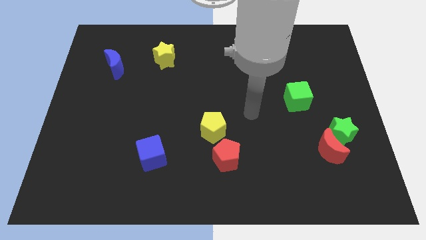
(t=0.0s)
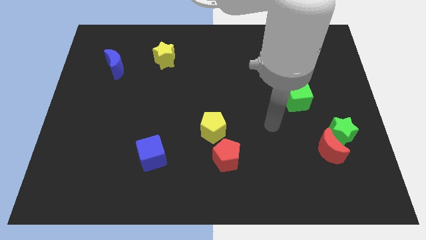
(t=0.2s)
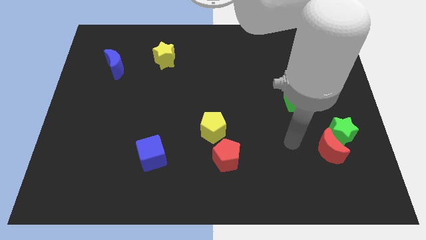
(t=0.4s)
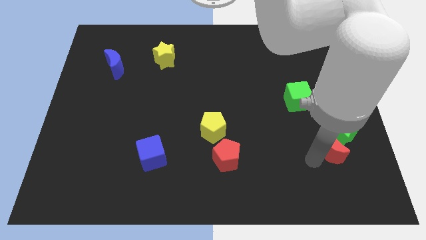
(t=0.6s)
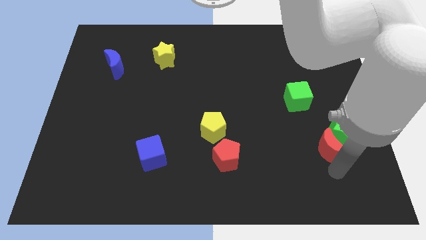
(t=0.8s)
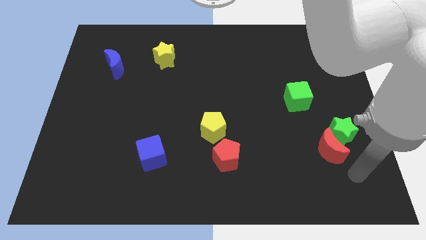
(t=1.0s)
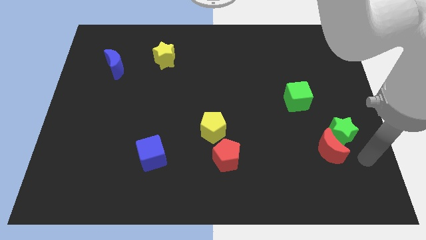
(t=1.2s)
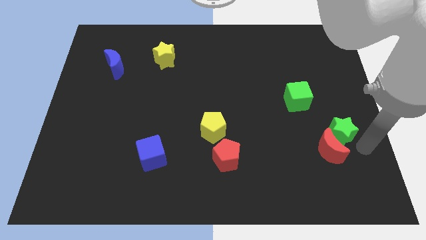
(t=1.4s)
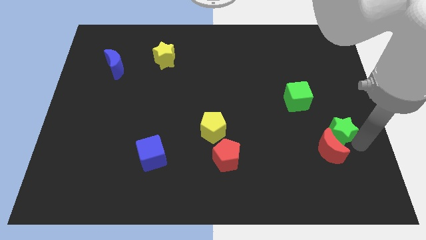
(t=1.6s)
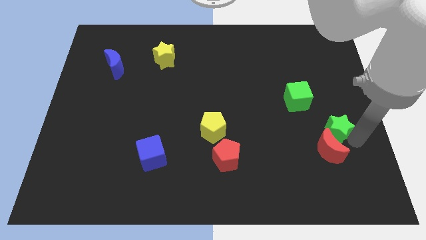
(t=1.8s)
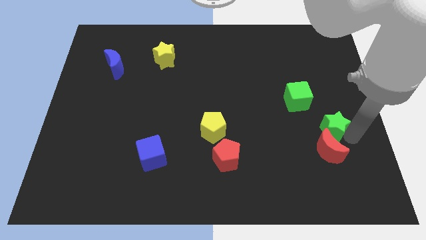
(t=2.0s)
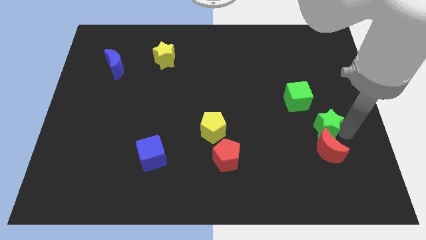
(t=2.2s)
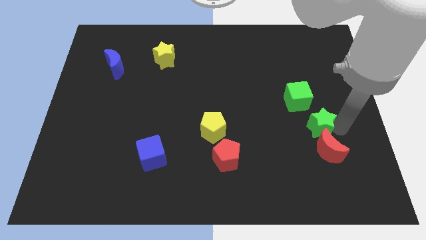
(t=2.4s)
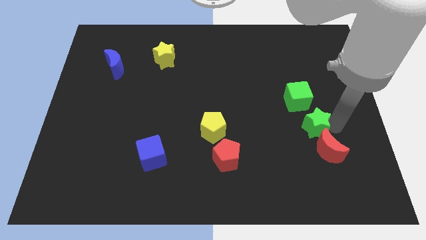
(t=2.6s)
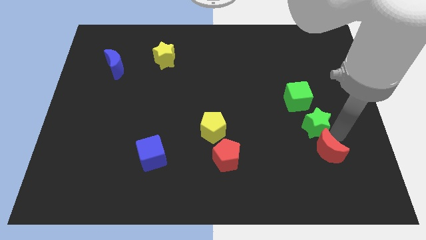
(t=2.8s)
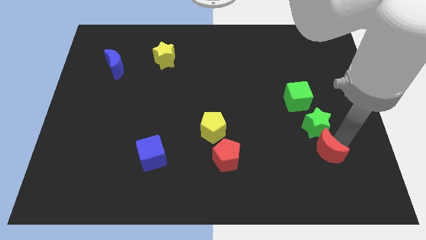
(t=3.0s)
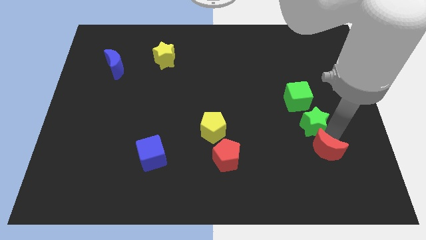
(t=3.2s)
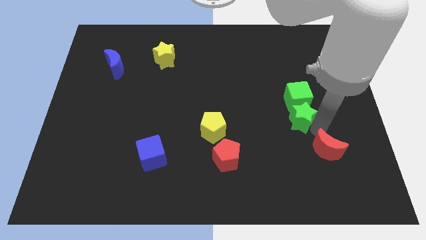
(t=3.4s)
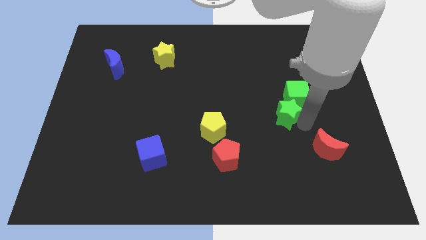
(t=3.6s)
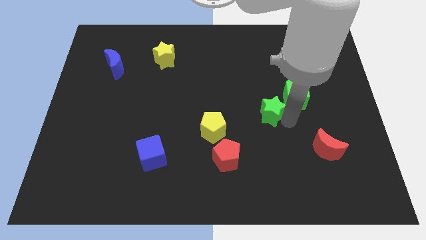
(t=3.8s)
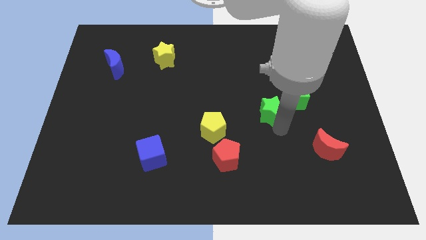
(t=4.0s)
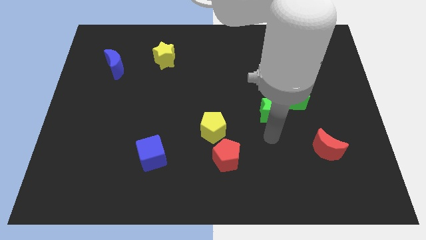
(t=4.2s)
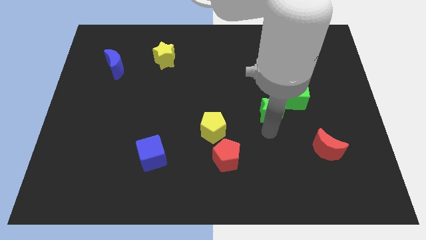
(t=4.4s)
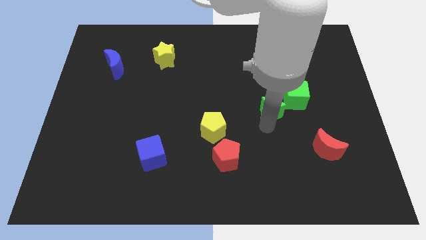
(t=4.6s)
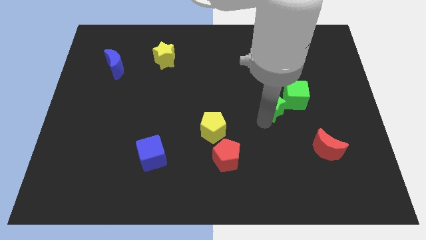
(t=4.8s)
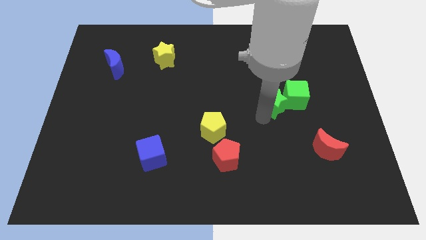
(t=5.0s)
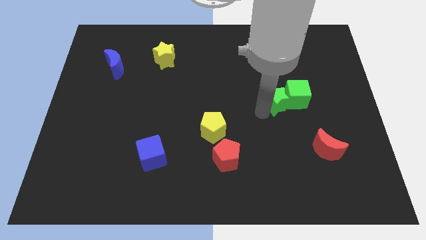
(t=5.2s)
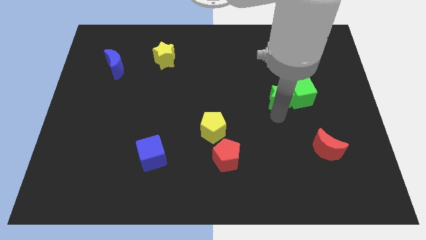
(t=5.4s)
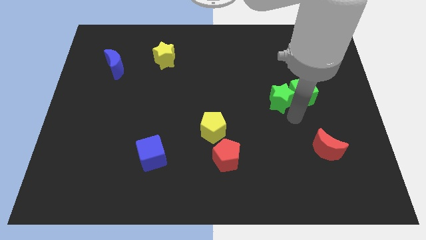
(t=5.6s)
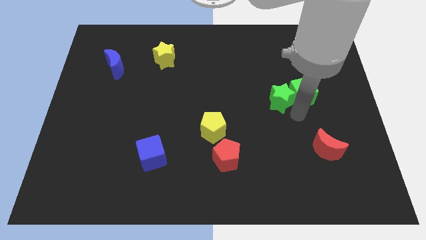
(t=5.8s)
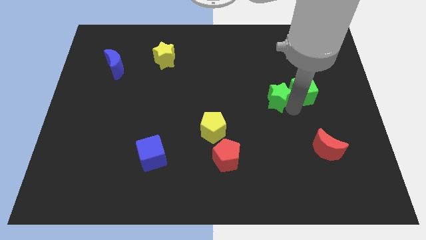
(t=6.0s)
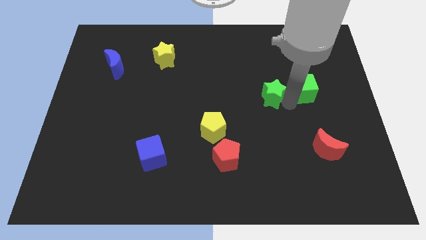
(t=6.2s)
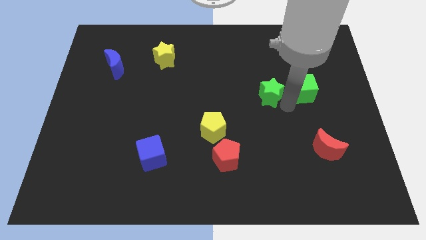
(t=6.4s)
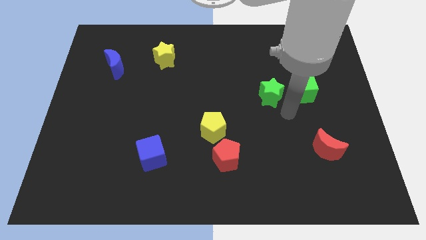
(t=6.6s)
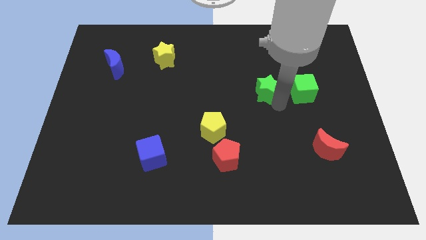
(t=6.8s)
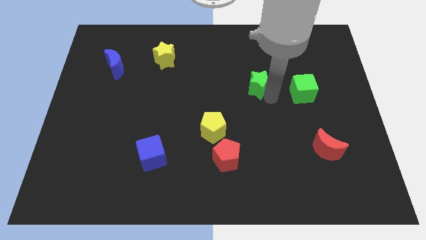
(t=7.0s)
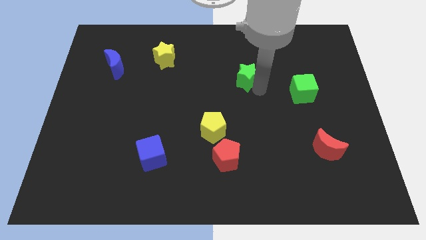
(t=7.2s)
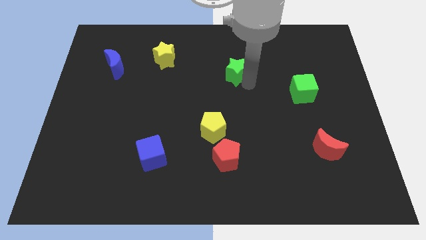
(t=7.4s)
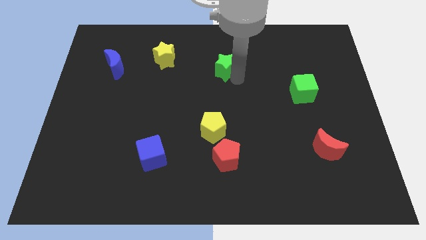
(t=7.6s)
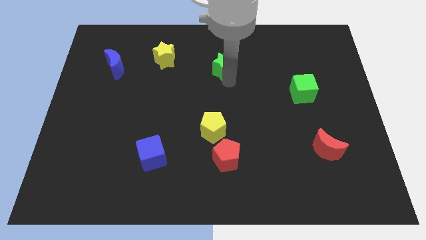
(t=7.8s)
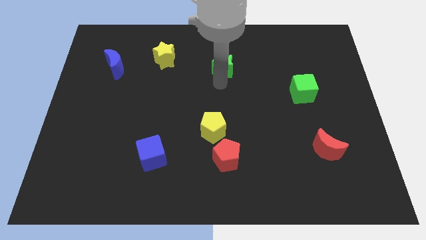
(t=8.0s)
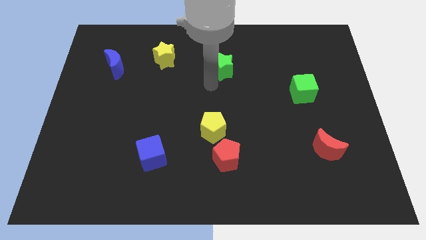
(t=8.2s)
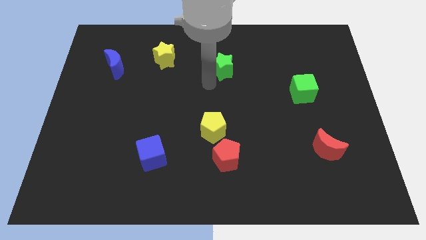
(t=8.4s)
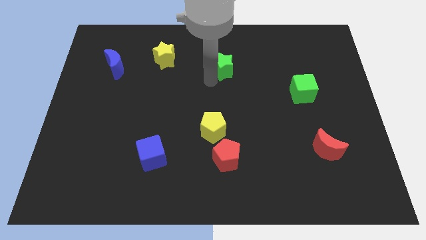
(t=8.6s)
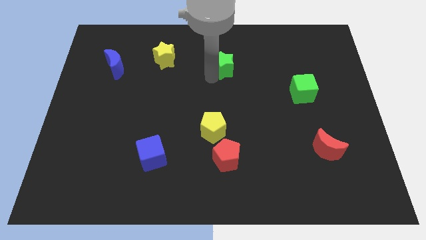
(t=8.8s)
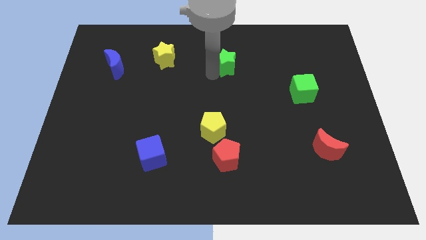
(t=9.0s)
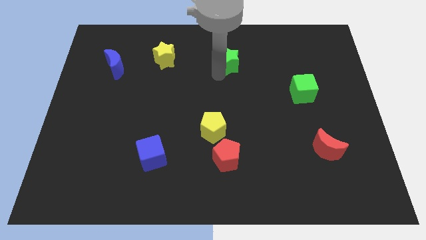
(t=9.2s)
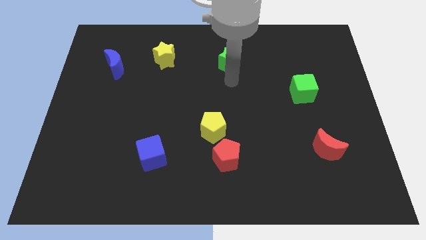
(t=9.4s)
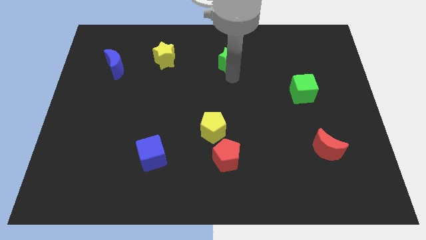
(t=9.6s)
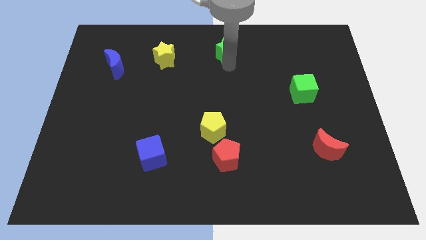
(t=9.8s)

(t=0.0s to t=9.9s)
put the green star to the towards your base

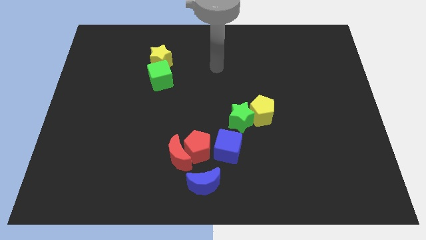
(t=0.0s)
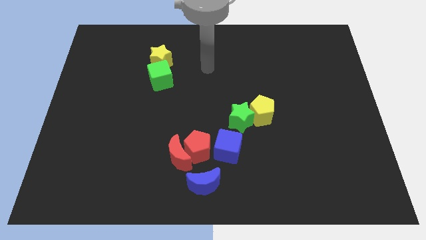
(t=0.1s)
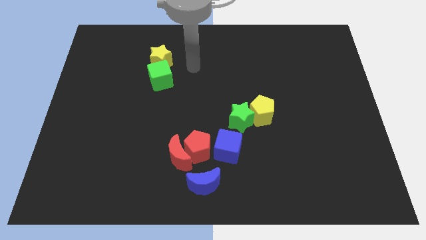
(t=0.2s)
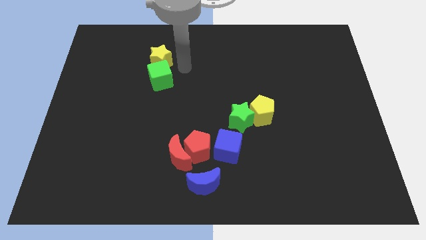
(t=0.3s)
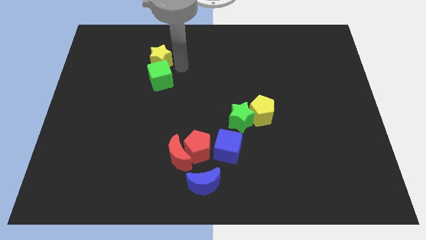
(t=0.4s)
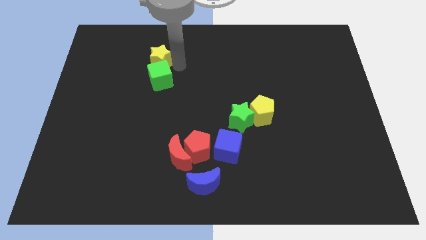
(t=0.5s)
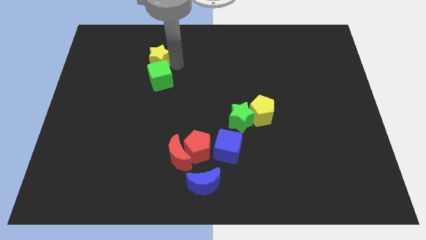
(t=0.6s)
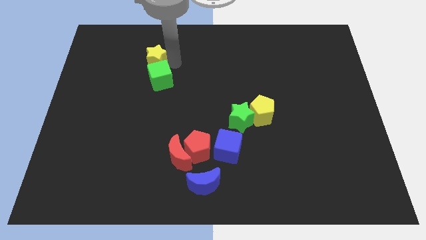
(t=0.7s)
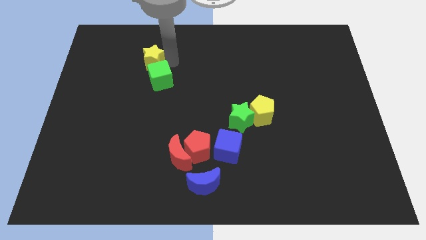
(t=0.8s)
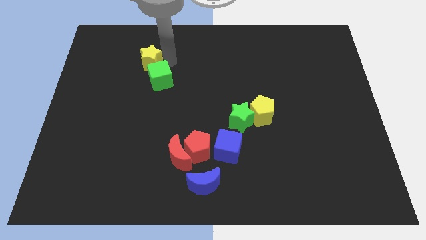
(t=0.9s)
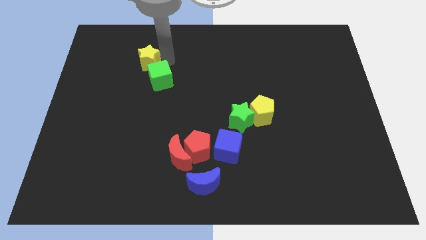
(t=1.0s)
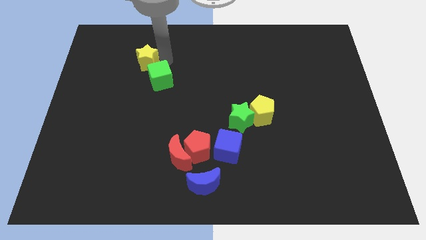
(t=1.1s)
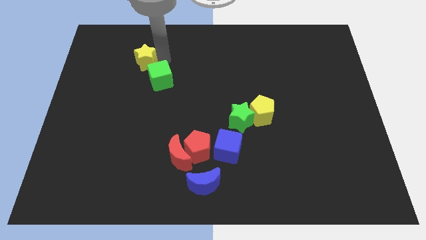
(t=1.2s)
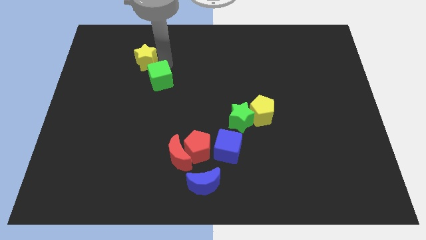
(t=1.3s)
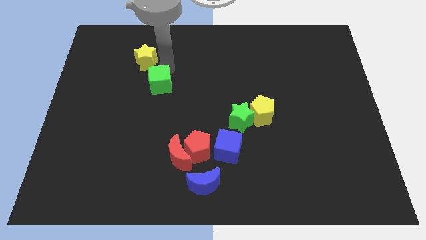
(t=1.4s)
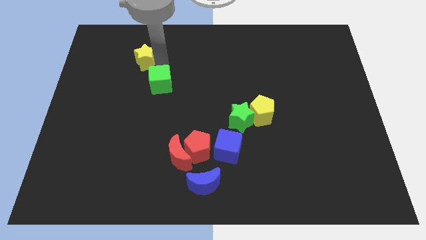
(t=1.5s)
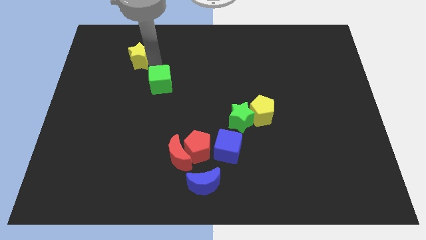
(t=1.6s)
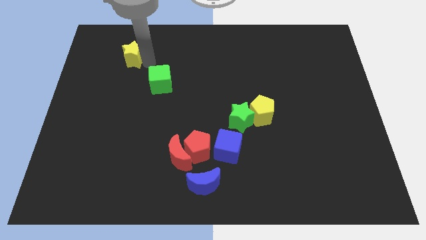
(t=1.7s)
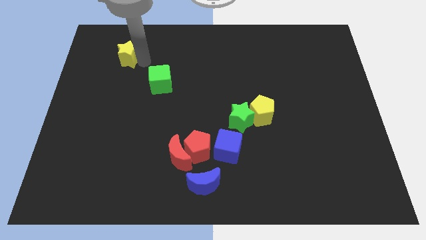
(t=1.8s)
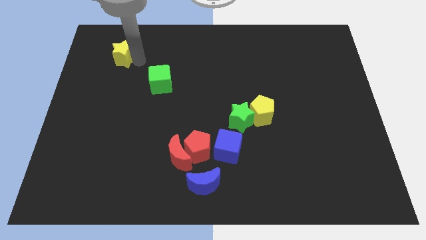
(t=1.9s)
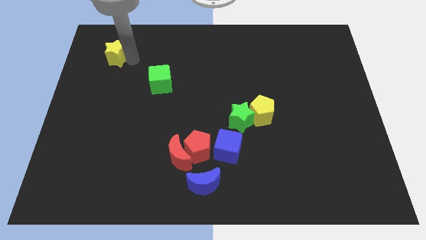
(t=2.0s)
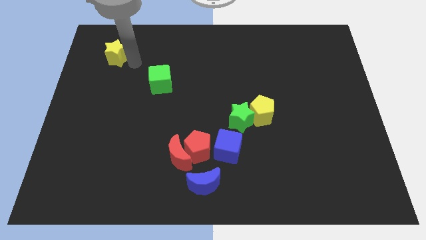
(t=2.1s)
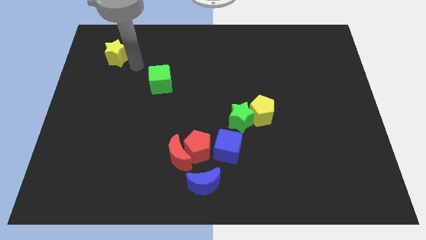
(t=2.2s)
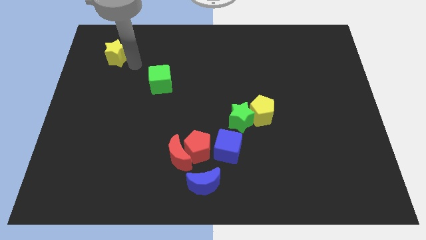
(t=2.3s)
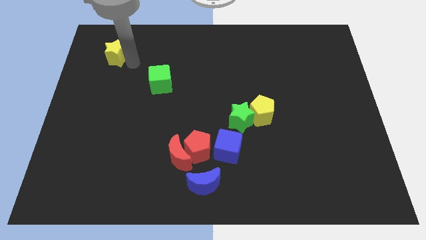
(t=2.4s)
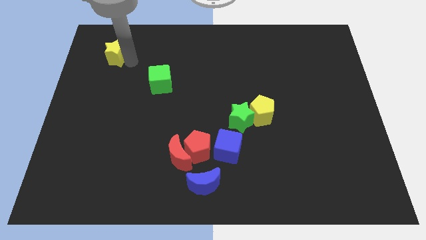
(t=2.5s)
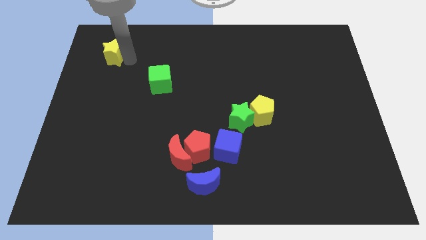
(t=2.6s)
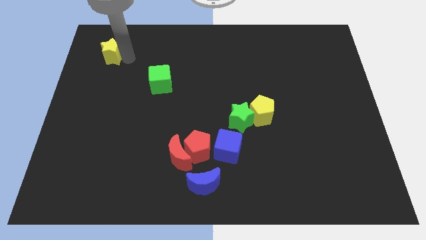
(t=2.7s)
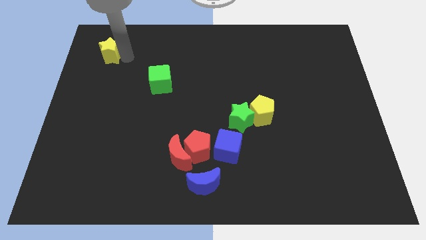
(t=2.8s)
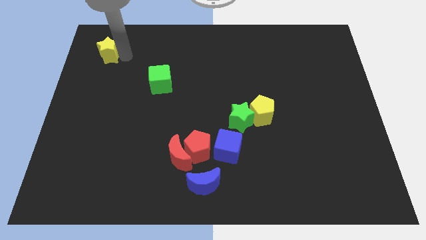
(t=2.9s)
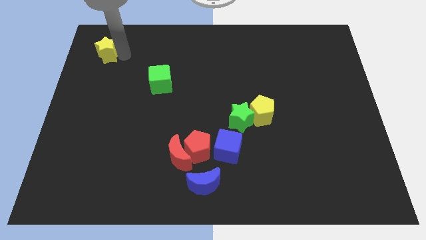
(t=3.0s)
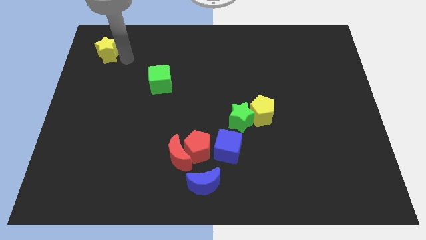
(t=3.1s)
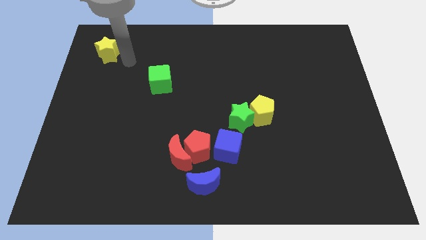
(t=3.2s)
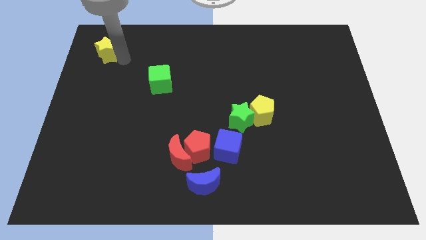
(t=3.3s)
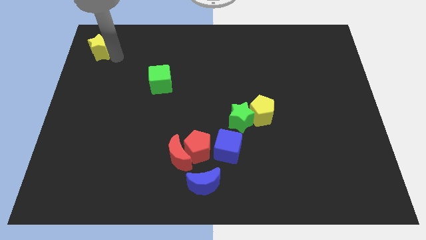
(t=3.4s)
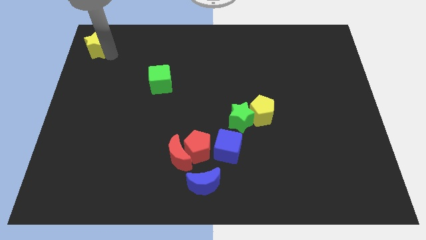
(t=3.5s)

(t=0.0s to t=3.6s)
push the yellow star to the top left
